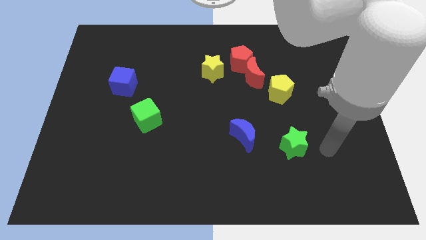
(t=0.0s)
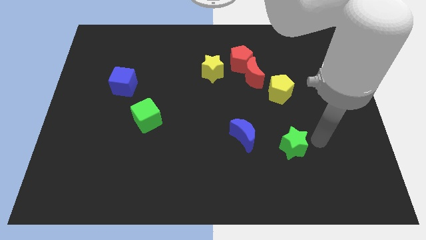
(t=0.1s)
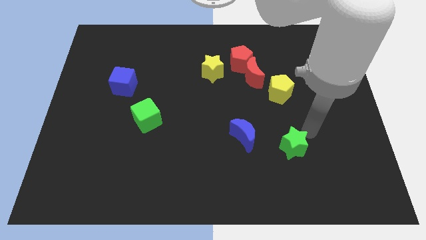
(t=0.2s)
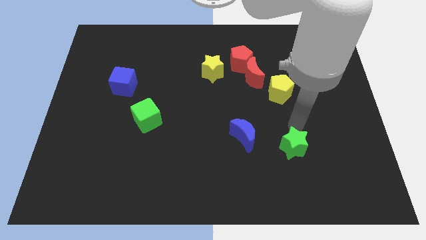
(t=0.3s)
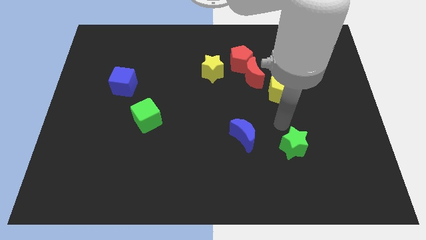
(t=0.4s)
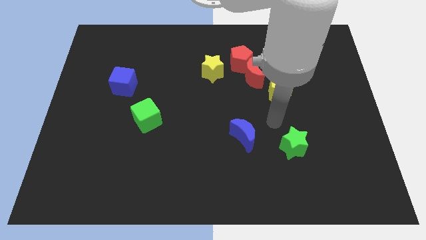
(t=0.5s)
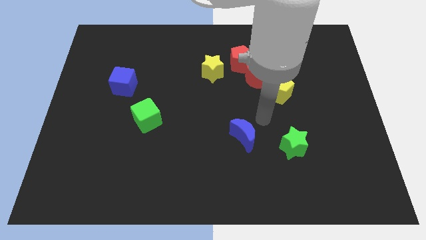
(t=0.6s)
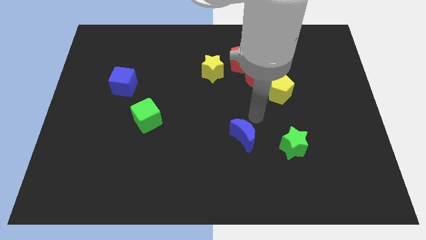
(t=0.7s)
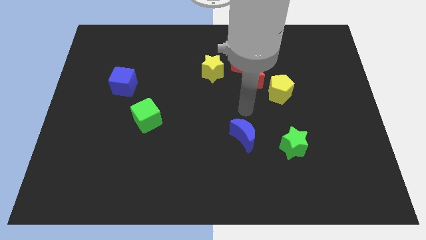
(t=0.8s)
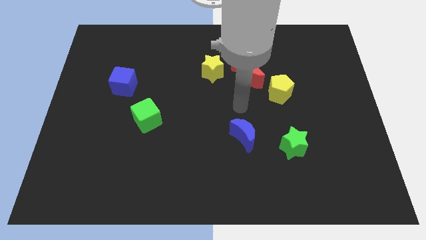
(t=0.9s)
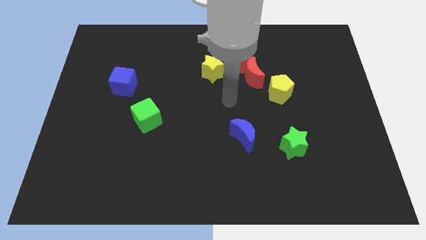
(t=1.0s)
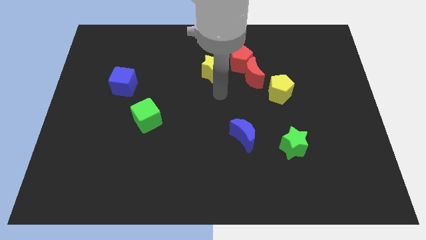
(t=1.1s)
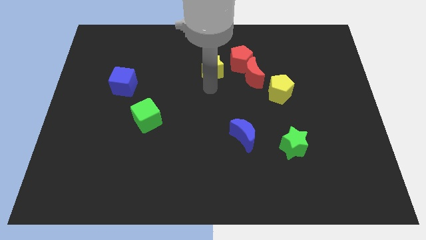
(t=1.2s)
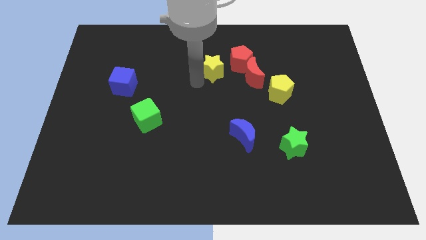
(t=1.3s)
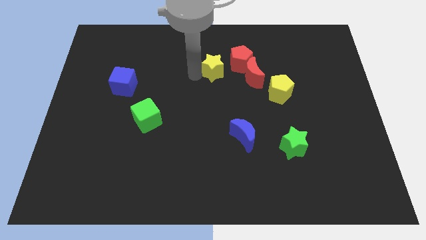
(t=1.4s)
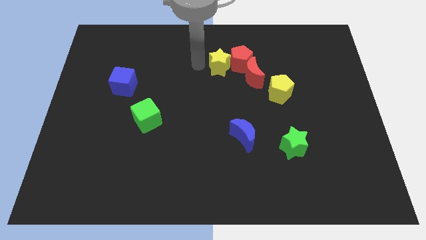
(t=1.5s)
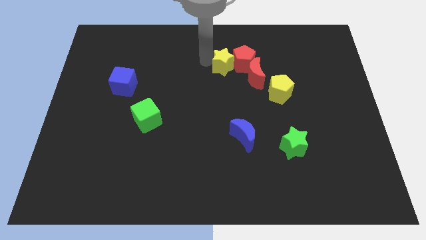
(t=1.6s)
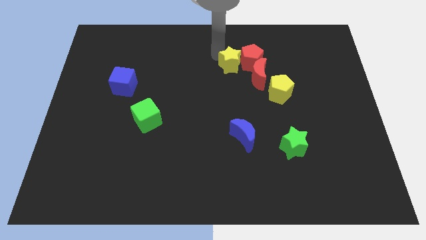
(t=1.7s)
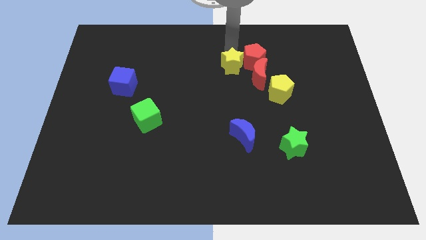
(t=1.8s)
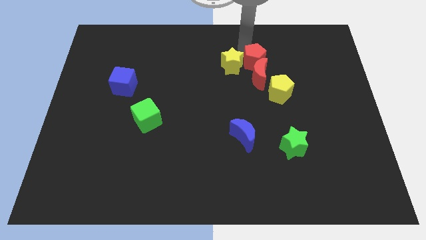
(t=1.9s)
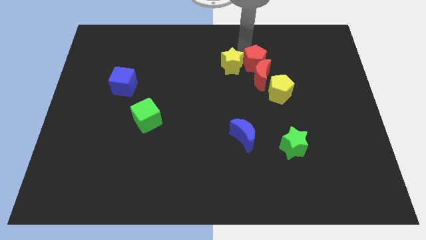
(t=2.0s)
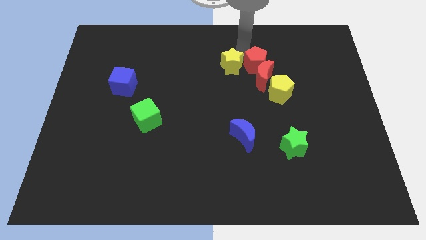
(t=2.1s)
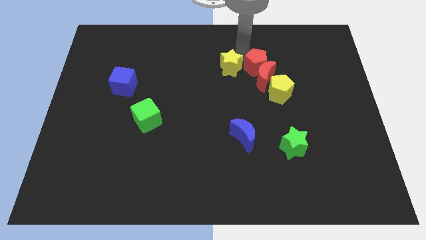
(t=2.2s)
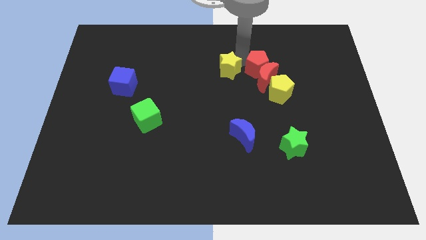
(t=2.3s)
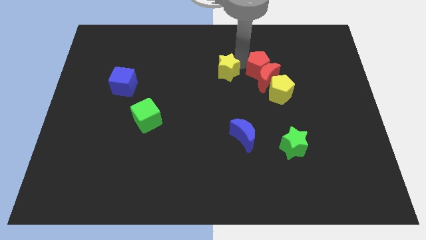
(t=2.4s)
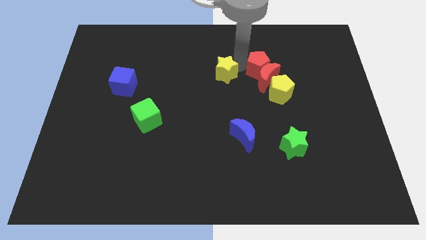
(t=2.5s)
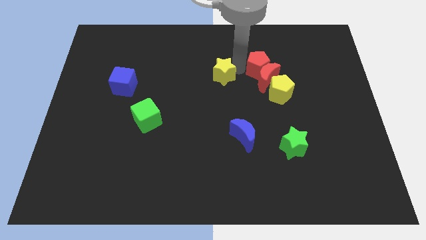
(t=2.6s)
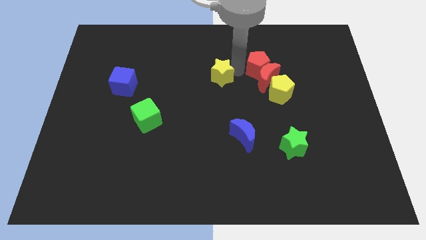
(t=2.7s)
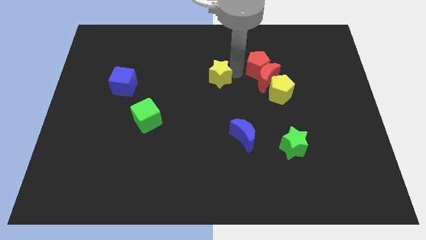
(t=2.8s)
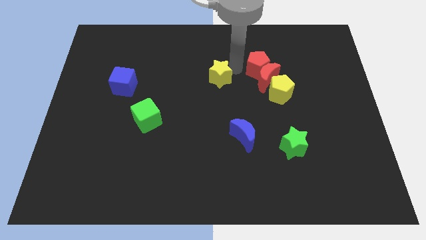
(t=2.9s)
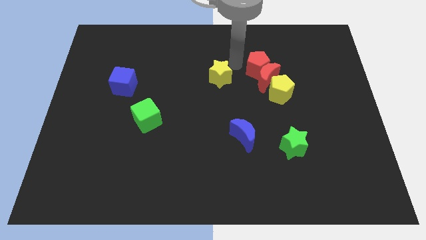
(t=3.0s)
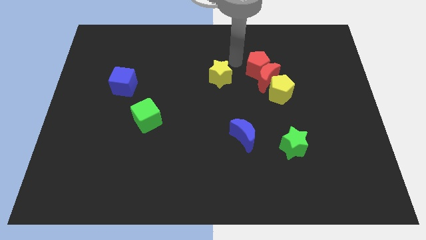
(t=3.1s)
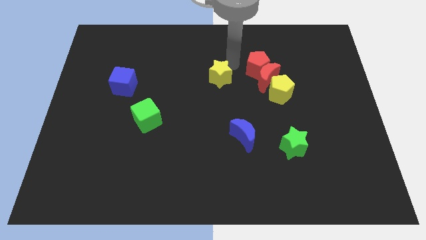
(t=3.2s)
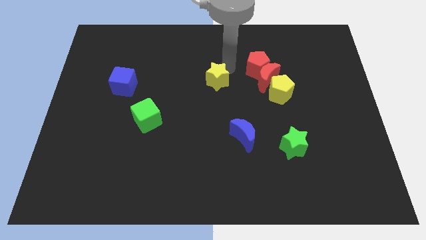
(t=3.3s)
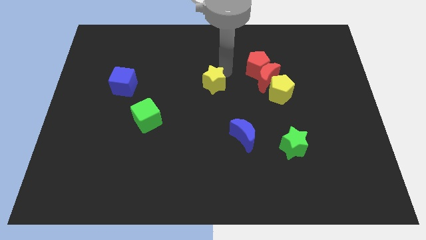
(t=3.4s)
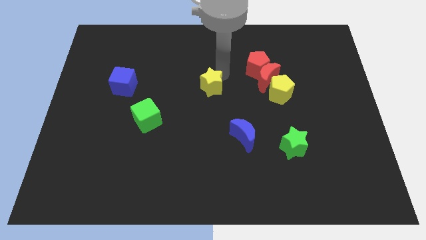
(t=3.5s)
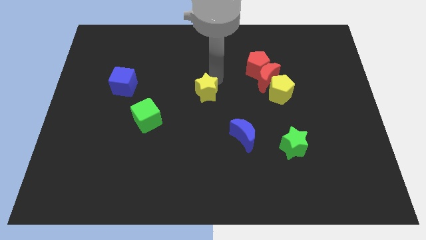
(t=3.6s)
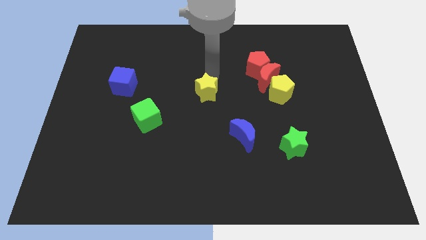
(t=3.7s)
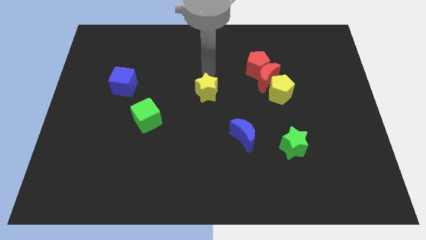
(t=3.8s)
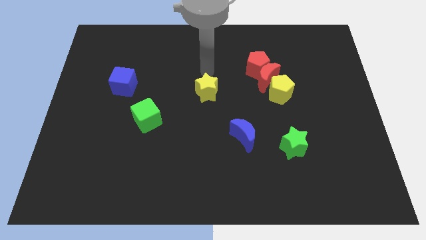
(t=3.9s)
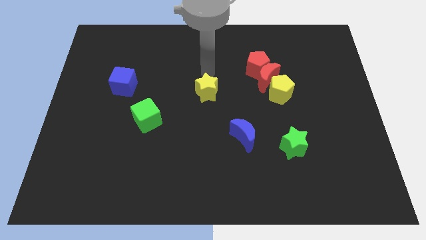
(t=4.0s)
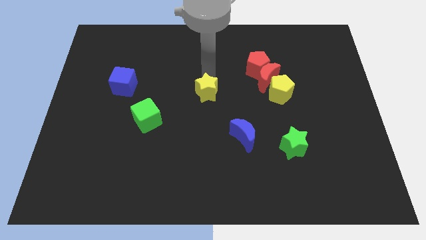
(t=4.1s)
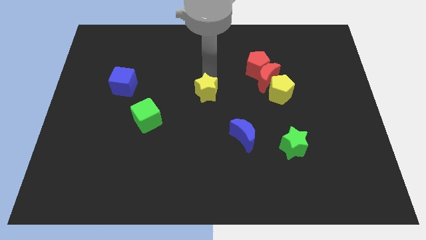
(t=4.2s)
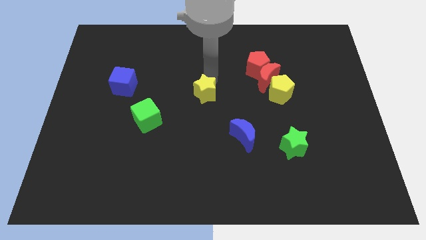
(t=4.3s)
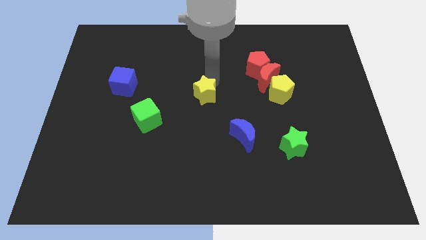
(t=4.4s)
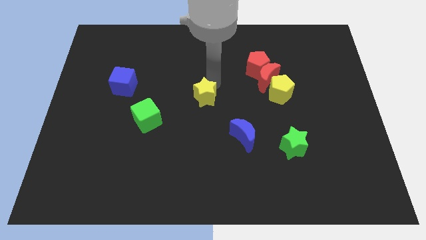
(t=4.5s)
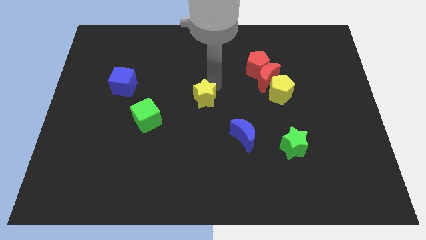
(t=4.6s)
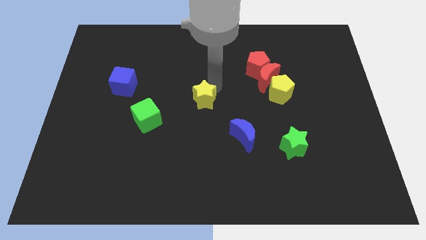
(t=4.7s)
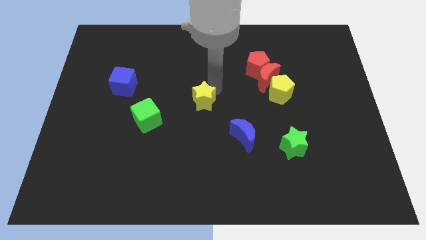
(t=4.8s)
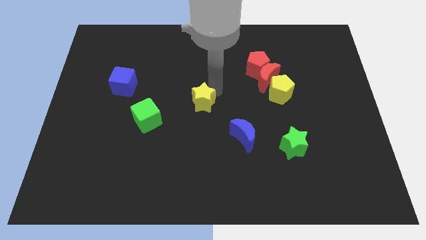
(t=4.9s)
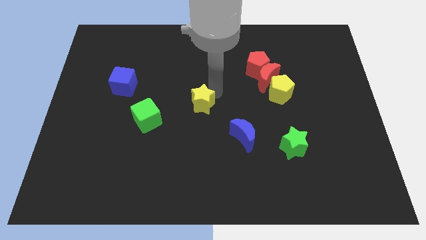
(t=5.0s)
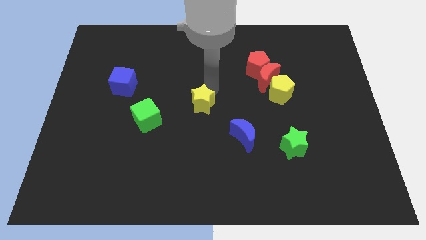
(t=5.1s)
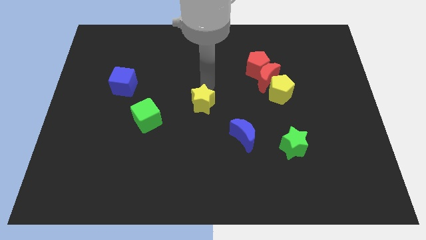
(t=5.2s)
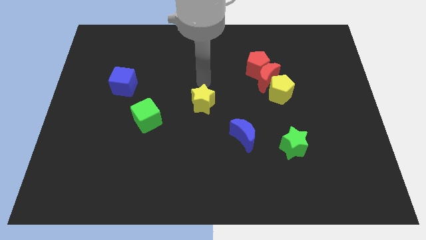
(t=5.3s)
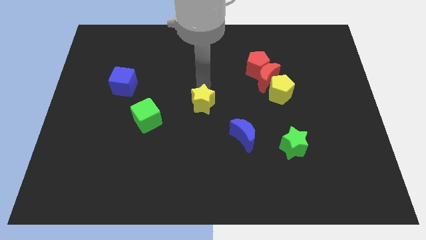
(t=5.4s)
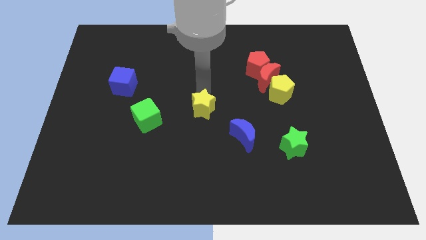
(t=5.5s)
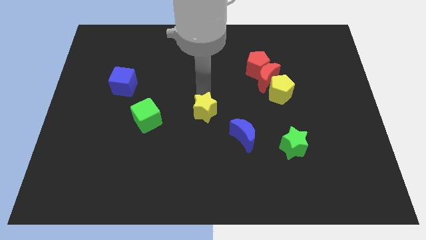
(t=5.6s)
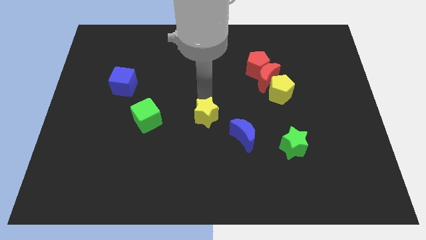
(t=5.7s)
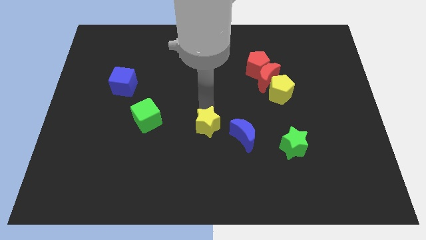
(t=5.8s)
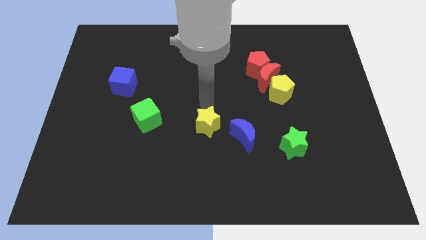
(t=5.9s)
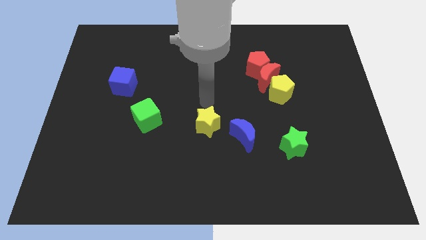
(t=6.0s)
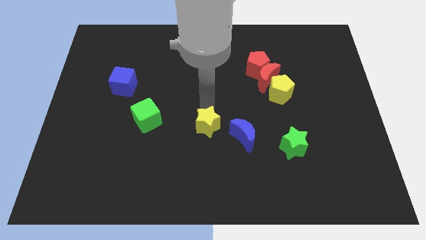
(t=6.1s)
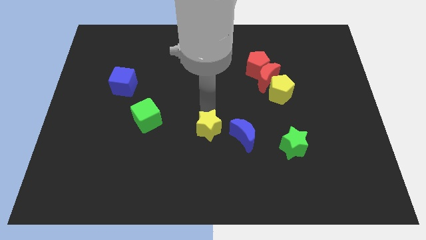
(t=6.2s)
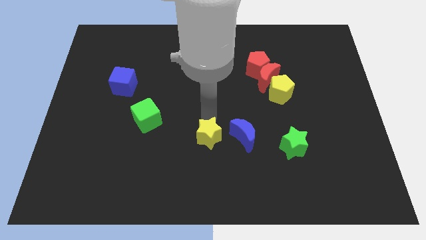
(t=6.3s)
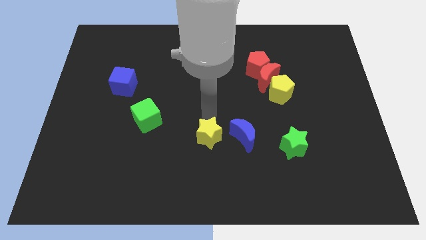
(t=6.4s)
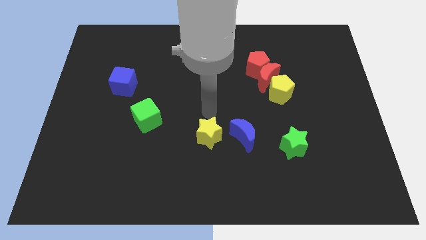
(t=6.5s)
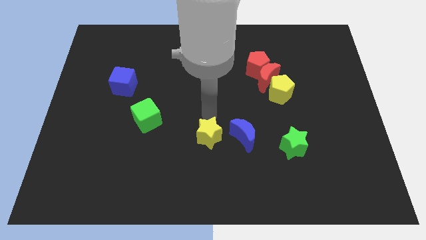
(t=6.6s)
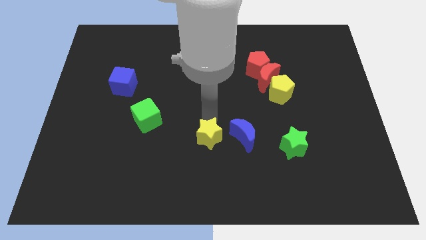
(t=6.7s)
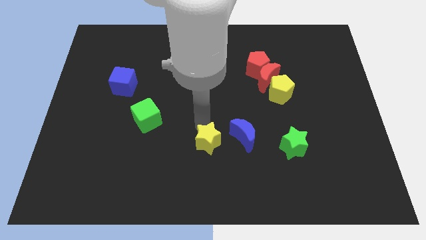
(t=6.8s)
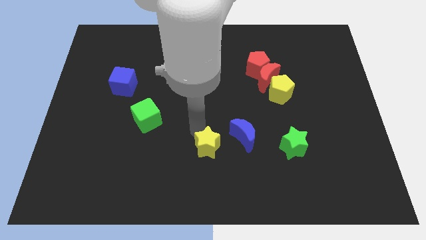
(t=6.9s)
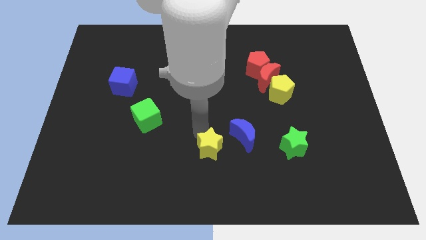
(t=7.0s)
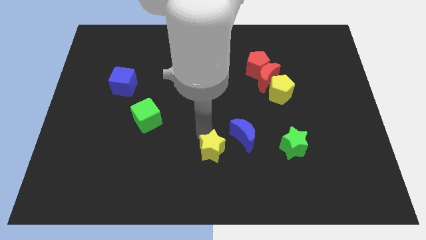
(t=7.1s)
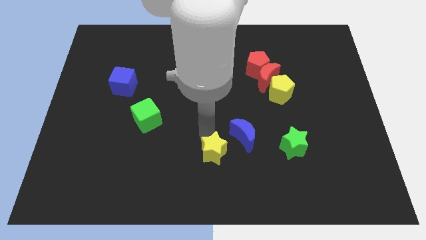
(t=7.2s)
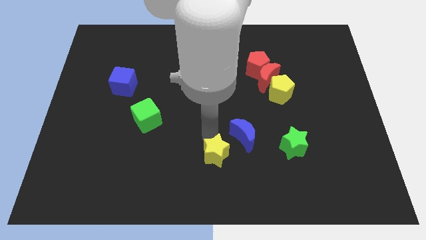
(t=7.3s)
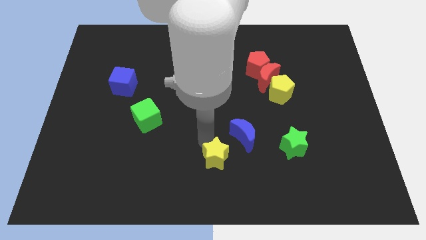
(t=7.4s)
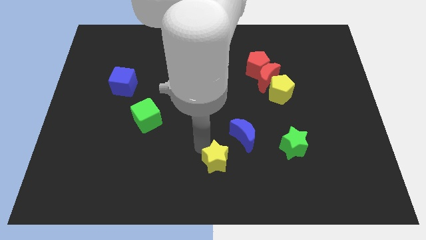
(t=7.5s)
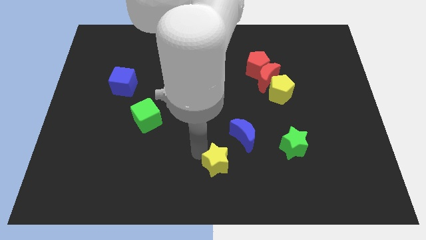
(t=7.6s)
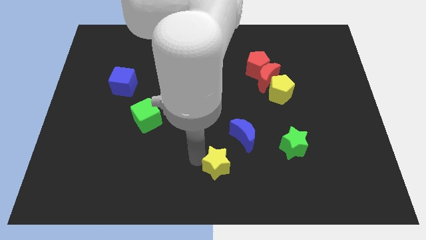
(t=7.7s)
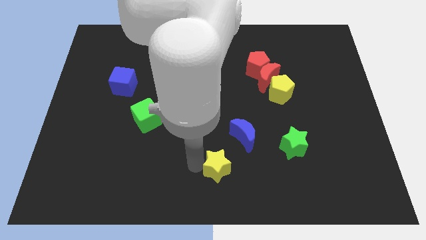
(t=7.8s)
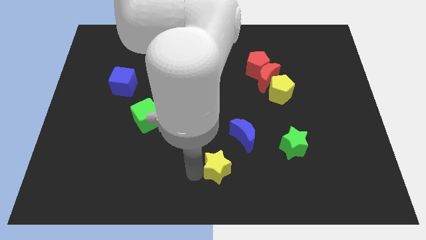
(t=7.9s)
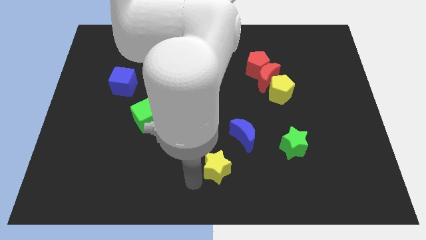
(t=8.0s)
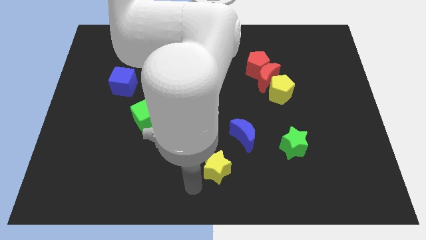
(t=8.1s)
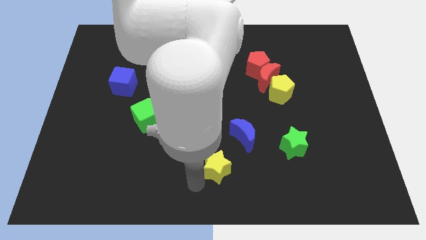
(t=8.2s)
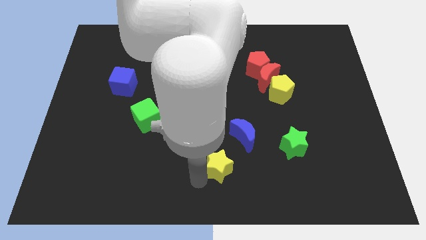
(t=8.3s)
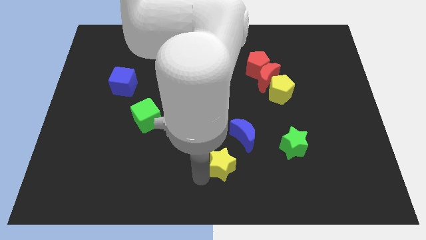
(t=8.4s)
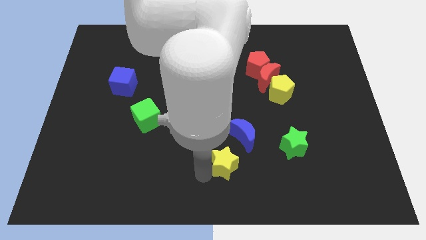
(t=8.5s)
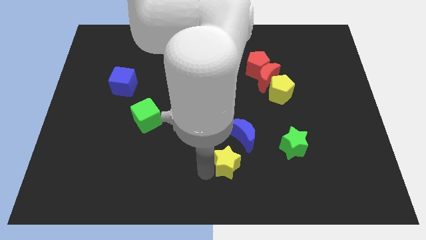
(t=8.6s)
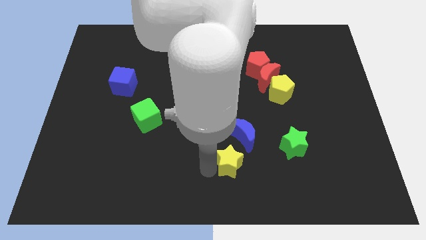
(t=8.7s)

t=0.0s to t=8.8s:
move the yellow star left of the green star
